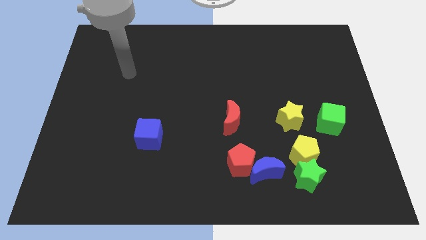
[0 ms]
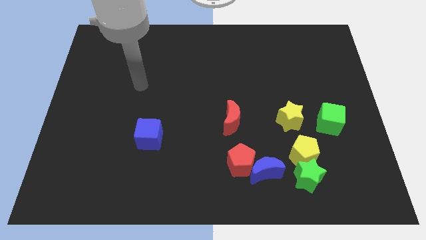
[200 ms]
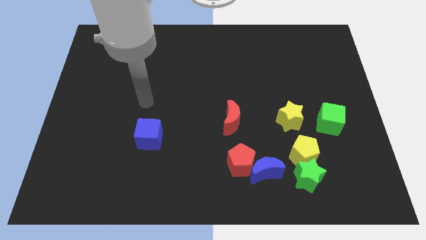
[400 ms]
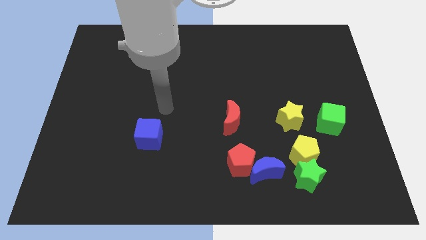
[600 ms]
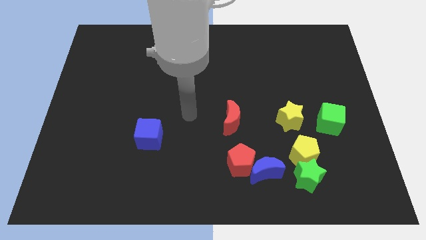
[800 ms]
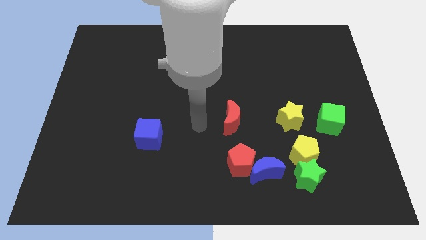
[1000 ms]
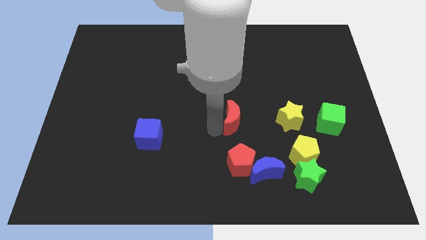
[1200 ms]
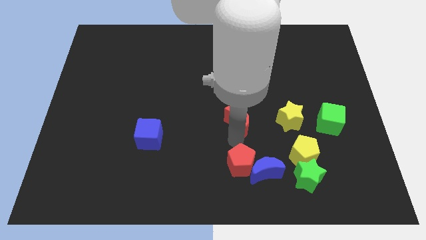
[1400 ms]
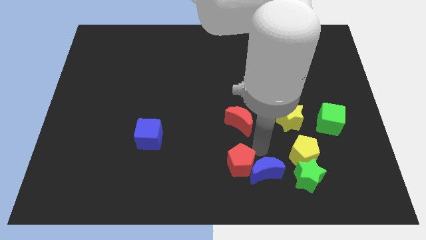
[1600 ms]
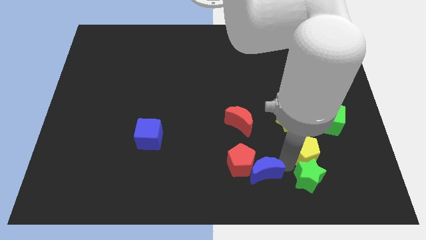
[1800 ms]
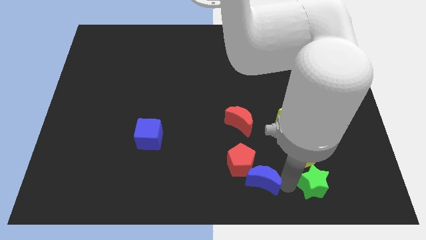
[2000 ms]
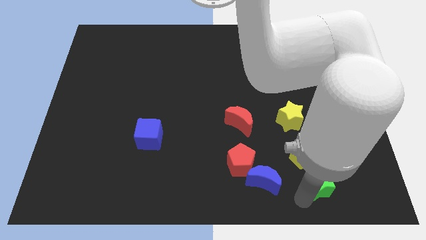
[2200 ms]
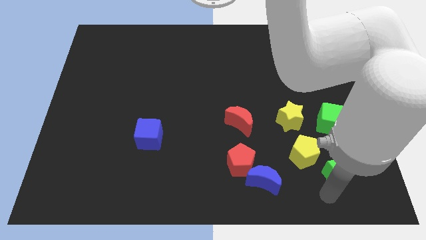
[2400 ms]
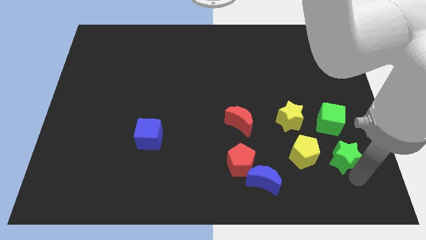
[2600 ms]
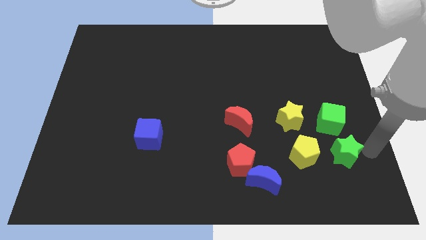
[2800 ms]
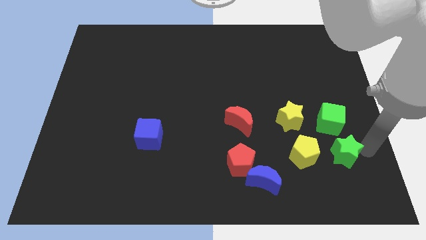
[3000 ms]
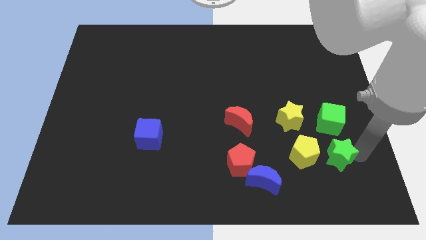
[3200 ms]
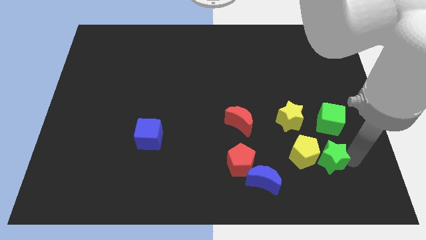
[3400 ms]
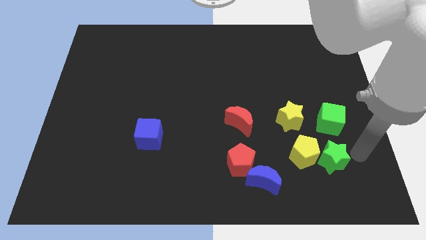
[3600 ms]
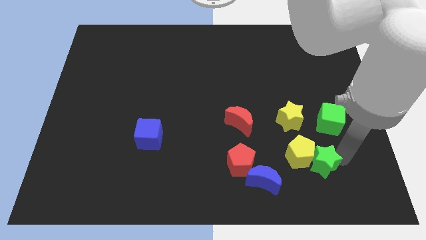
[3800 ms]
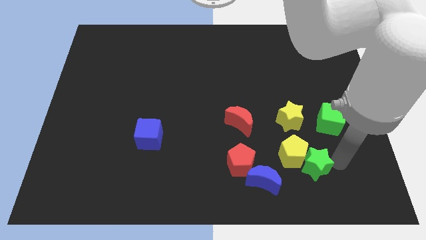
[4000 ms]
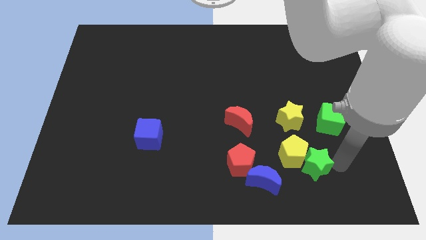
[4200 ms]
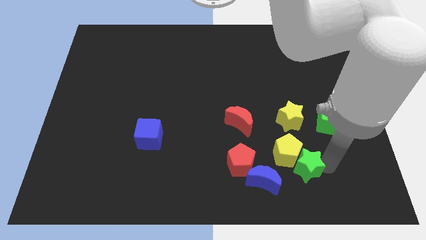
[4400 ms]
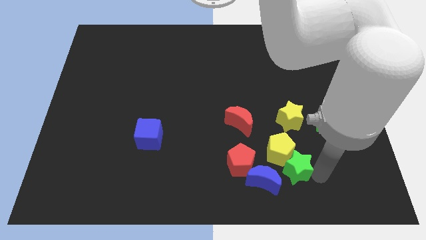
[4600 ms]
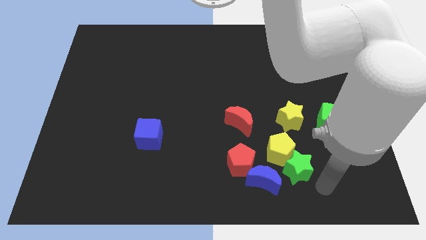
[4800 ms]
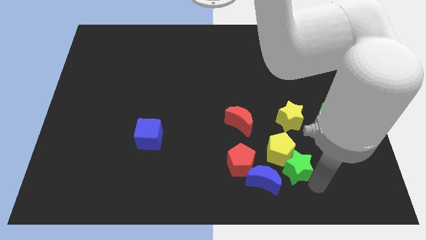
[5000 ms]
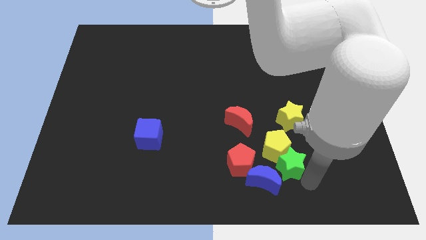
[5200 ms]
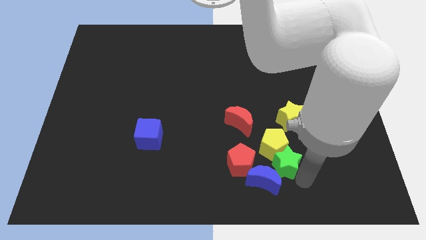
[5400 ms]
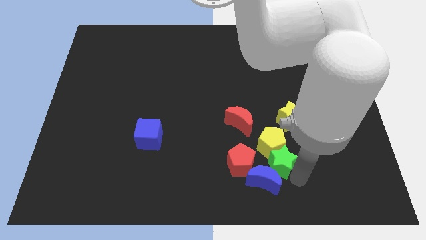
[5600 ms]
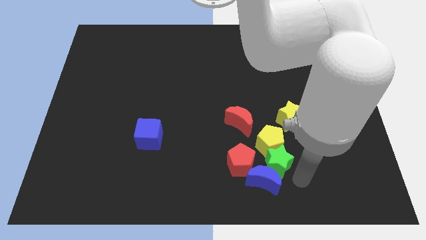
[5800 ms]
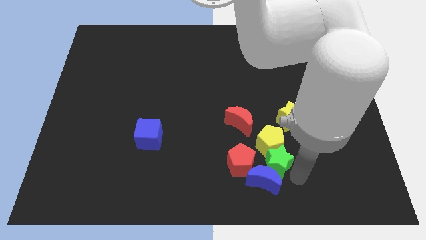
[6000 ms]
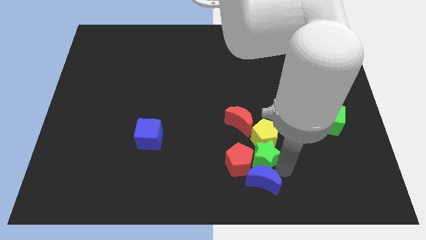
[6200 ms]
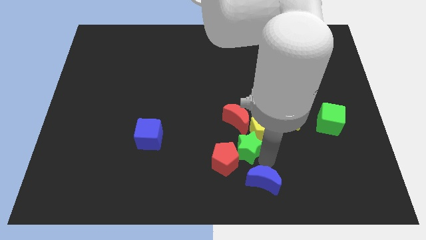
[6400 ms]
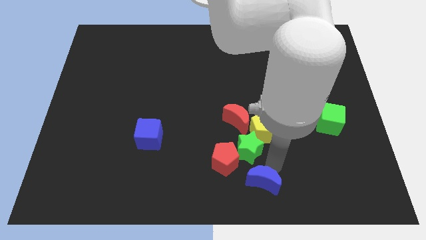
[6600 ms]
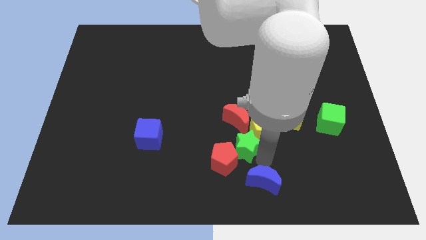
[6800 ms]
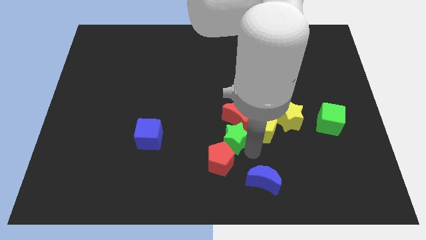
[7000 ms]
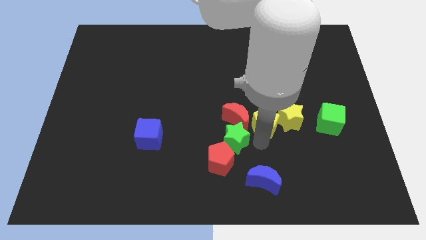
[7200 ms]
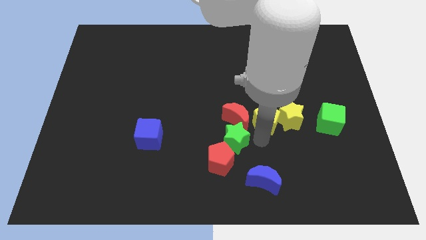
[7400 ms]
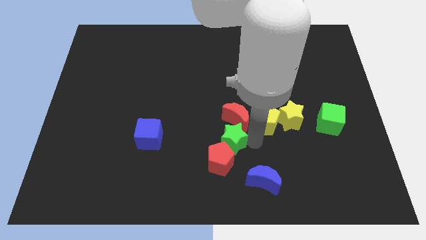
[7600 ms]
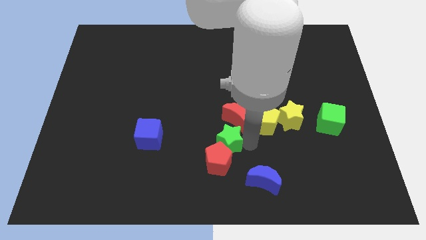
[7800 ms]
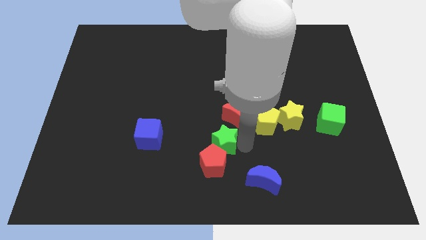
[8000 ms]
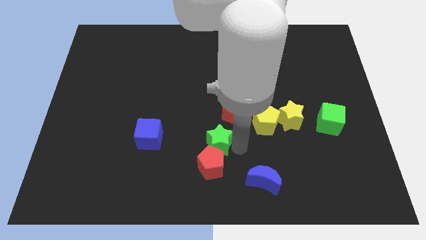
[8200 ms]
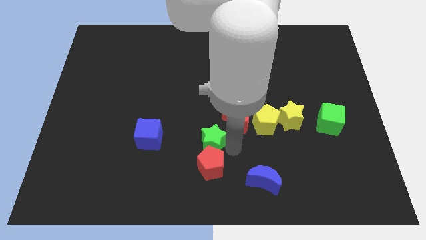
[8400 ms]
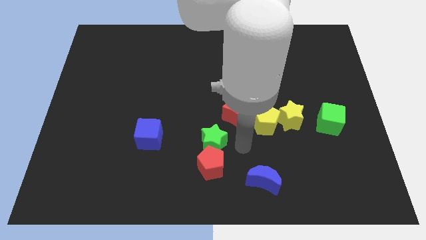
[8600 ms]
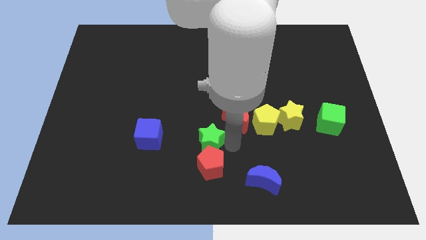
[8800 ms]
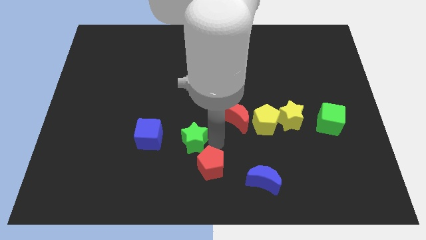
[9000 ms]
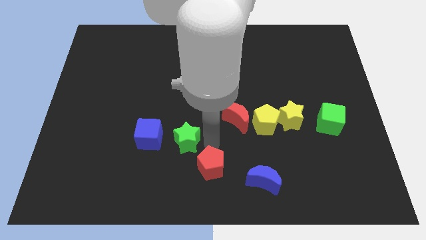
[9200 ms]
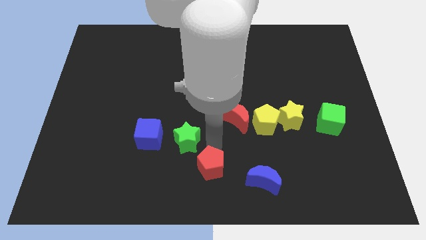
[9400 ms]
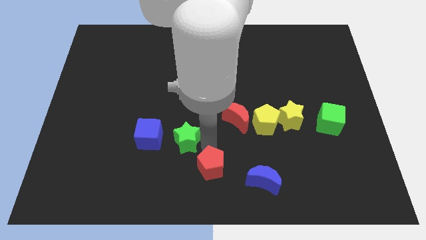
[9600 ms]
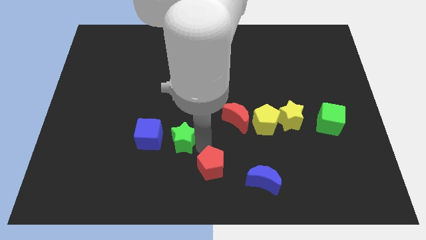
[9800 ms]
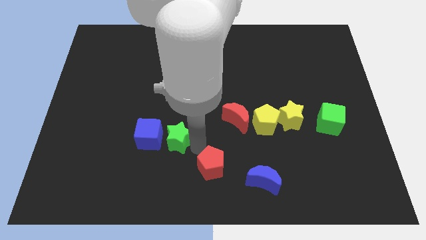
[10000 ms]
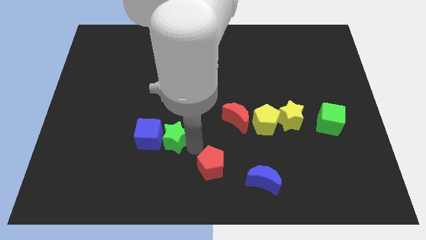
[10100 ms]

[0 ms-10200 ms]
put the green star next to the blue cube

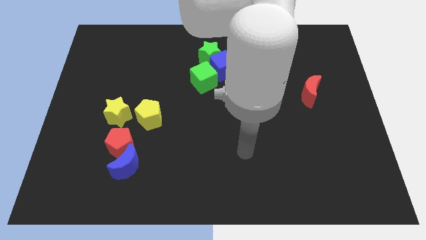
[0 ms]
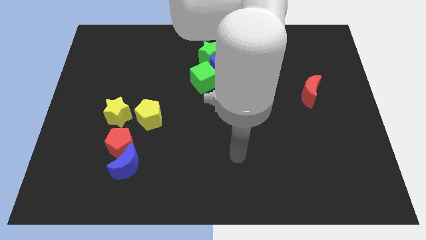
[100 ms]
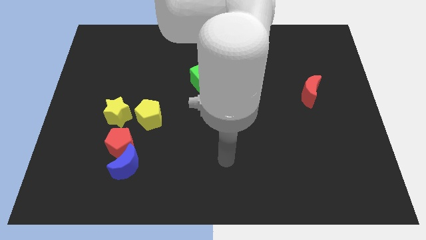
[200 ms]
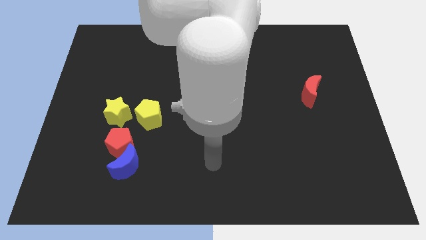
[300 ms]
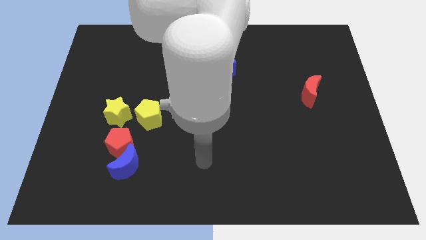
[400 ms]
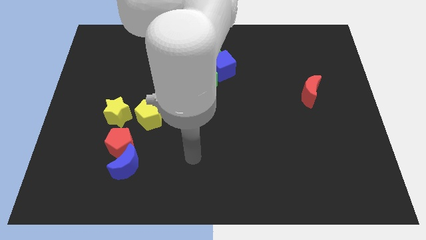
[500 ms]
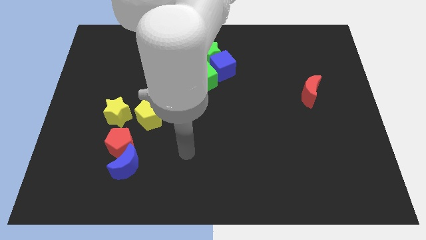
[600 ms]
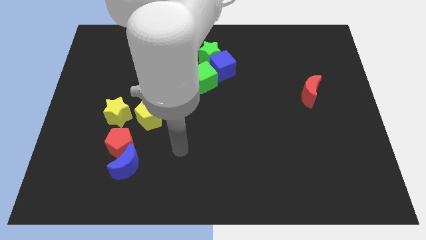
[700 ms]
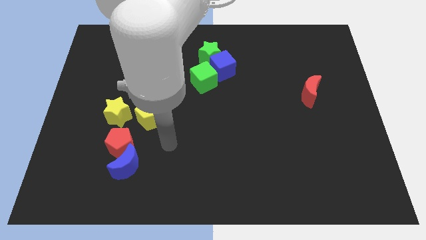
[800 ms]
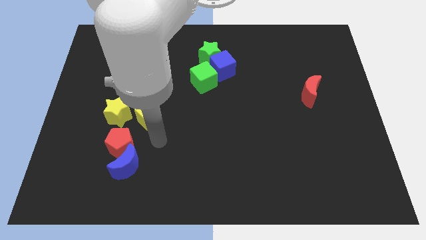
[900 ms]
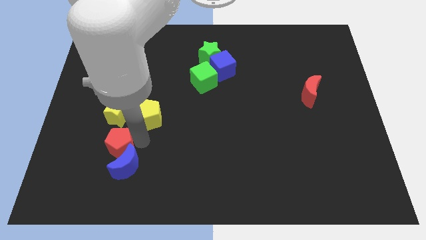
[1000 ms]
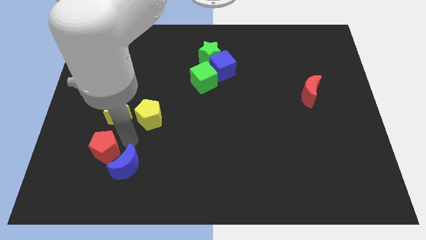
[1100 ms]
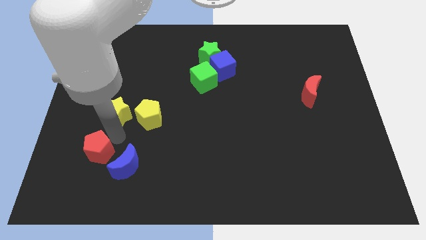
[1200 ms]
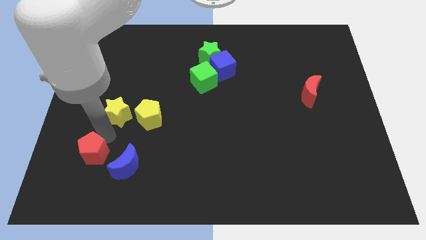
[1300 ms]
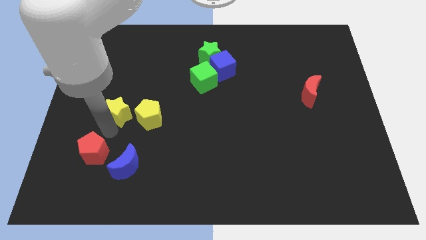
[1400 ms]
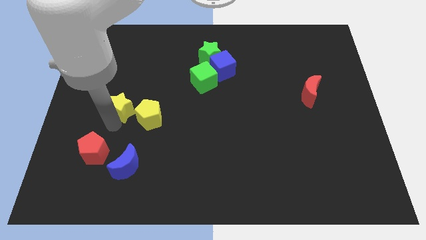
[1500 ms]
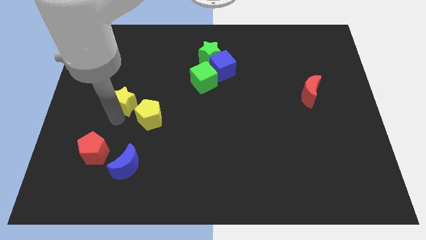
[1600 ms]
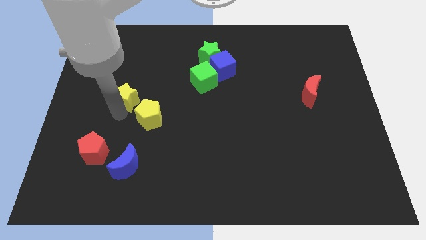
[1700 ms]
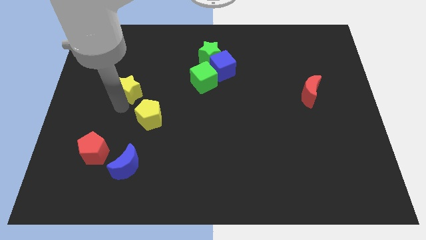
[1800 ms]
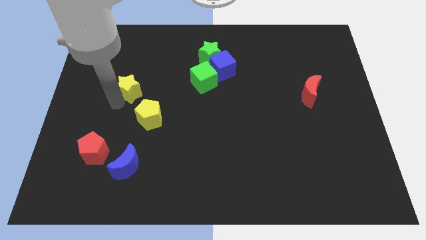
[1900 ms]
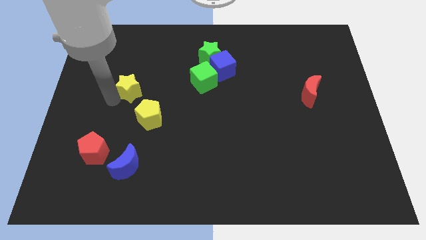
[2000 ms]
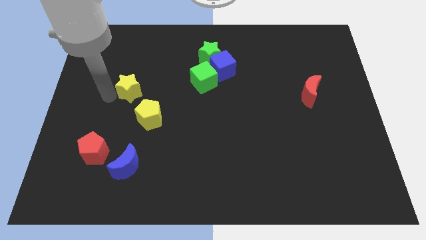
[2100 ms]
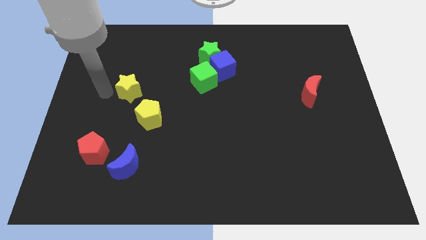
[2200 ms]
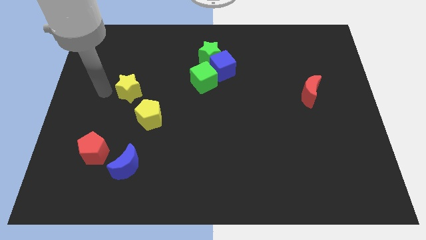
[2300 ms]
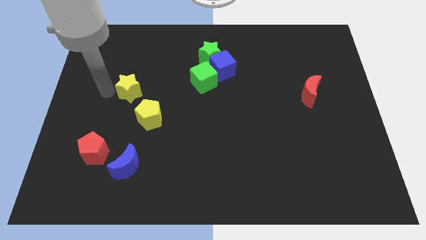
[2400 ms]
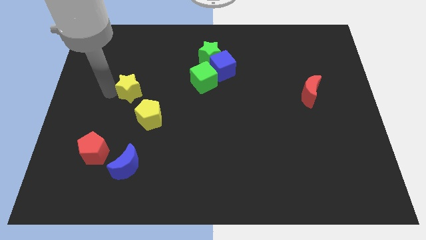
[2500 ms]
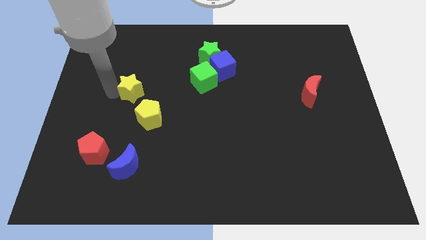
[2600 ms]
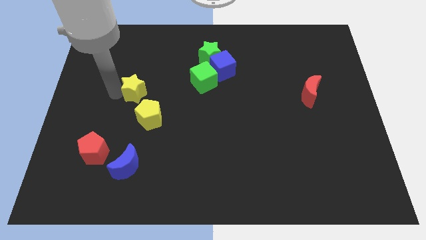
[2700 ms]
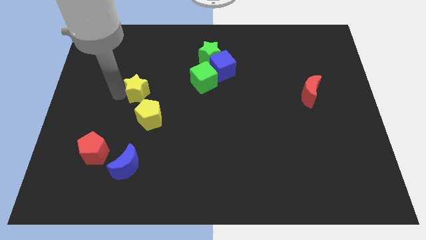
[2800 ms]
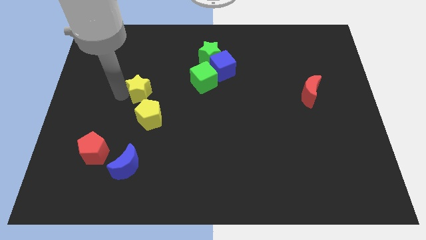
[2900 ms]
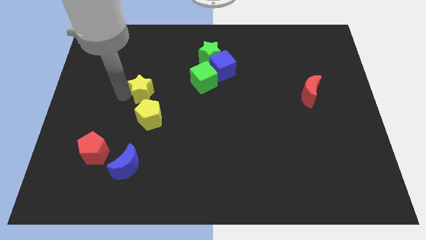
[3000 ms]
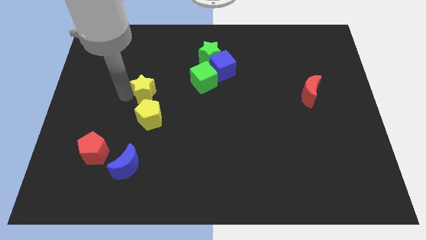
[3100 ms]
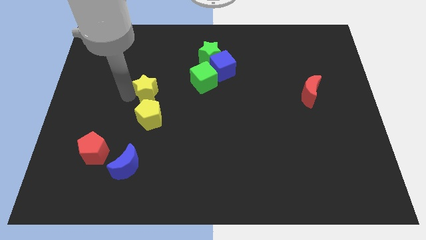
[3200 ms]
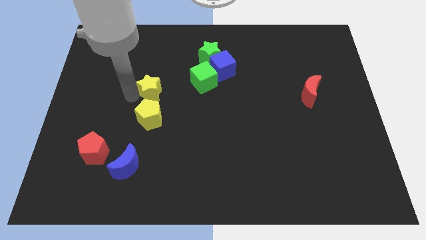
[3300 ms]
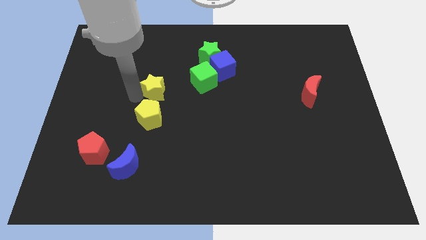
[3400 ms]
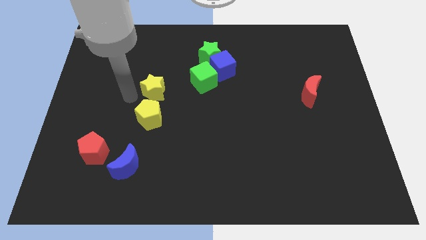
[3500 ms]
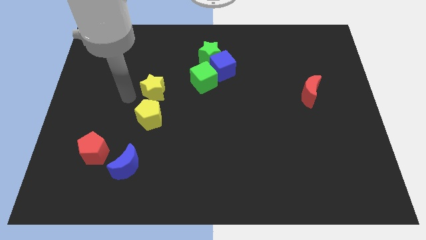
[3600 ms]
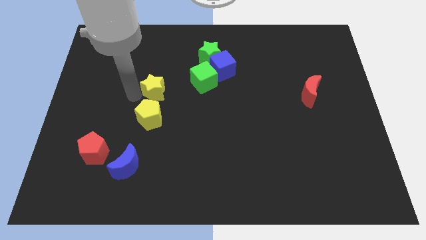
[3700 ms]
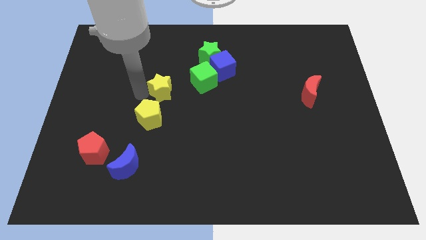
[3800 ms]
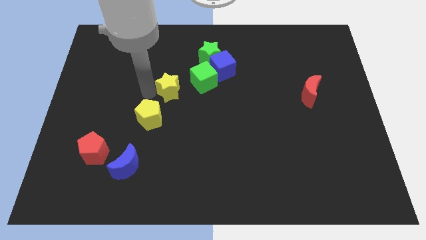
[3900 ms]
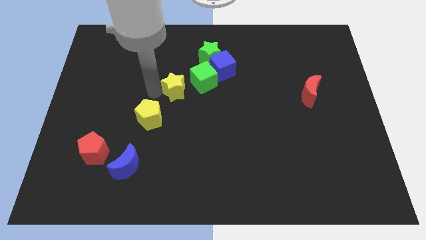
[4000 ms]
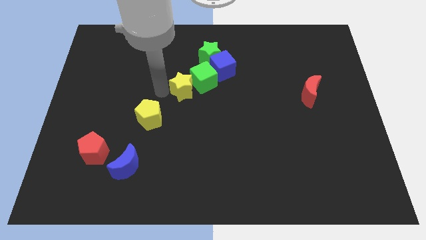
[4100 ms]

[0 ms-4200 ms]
push the yellow star close to the green cube
